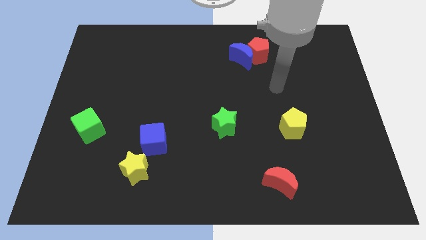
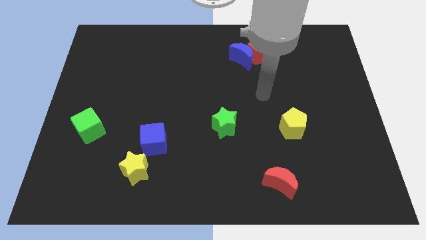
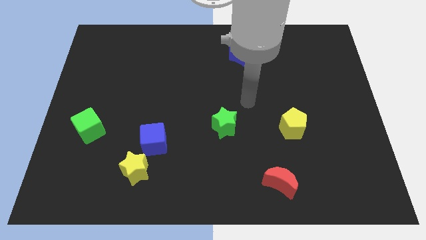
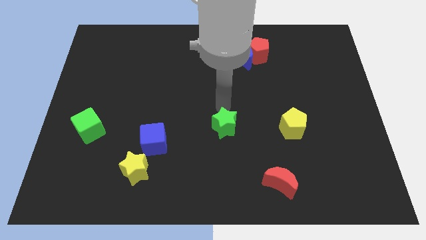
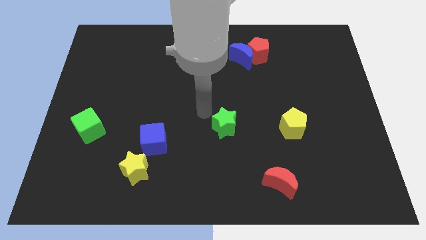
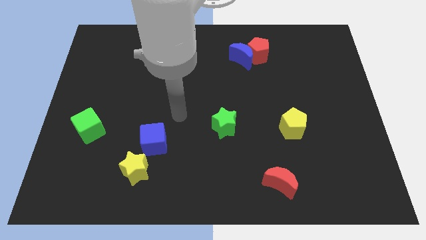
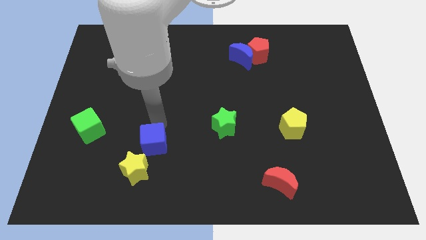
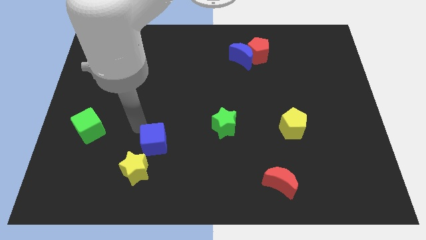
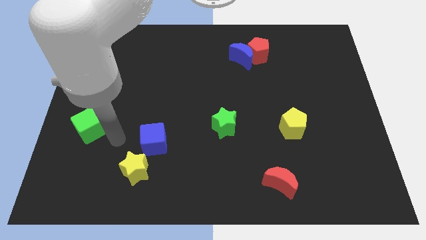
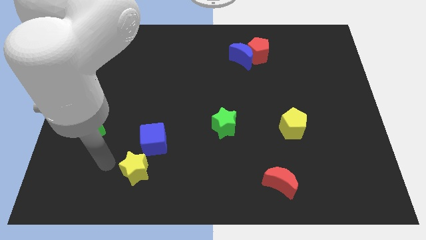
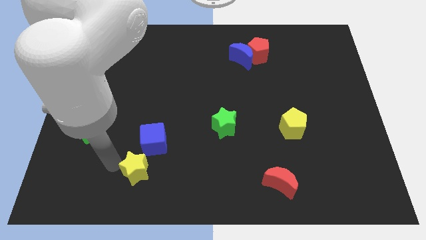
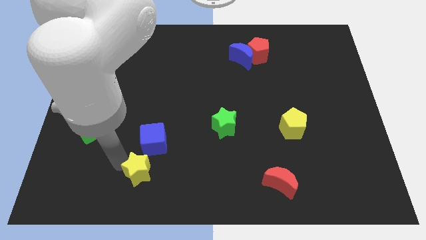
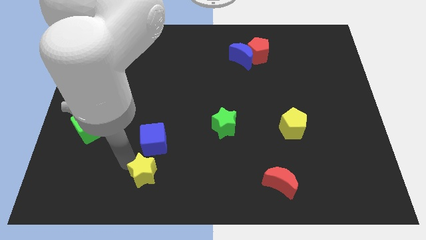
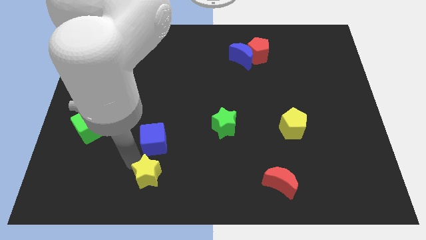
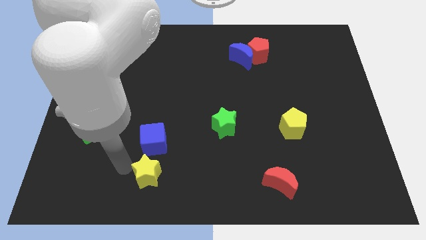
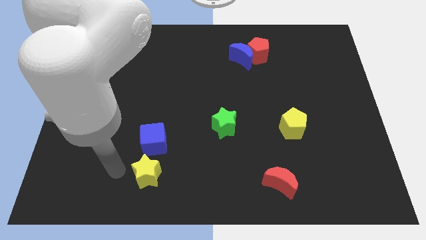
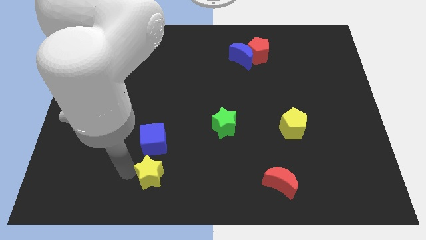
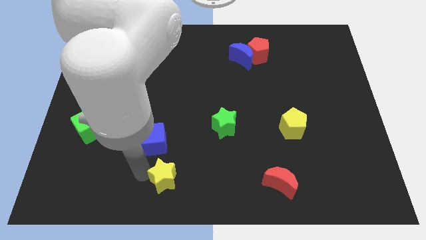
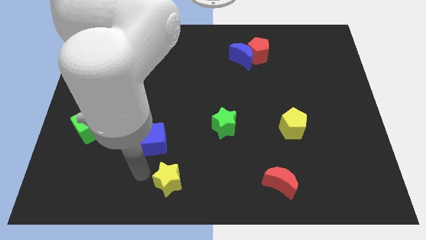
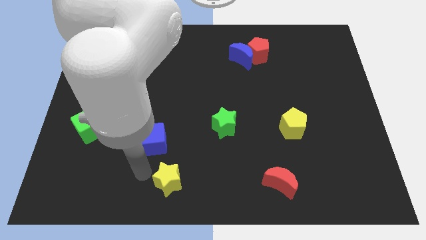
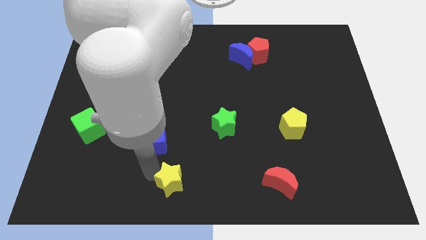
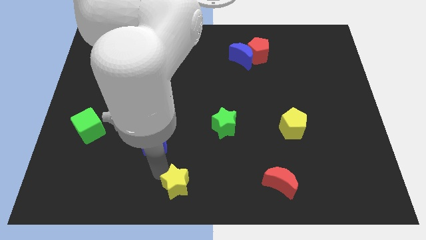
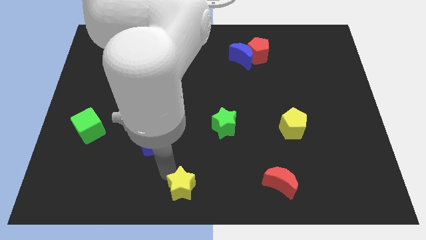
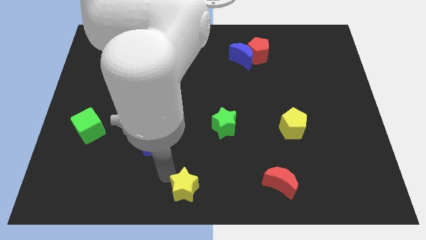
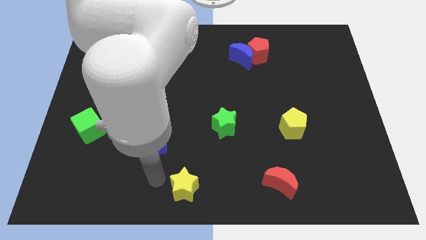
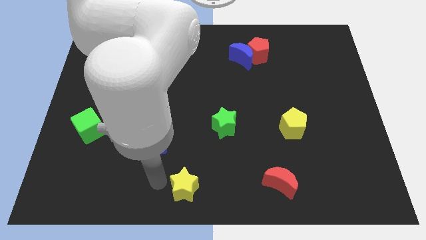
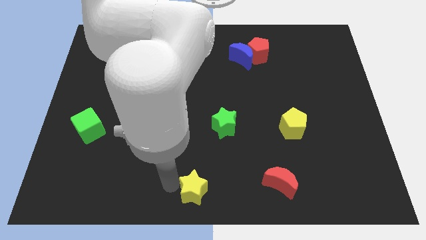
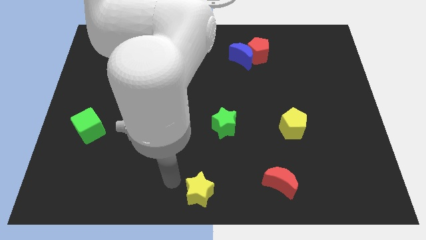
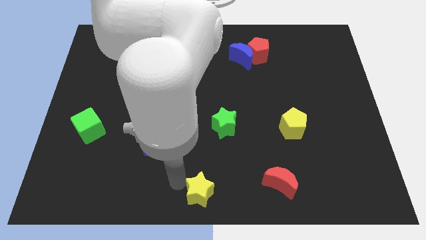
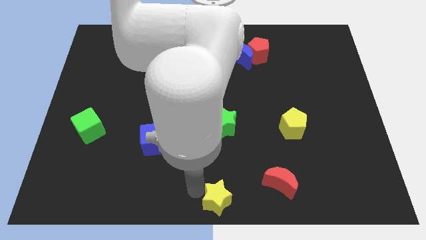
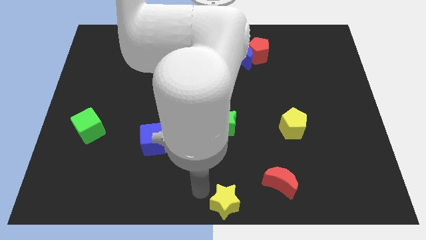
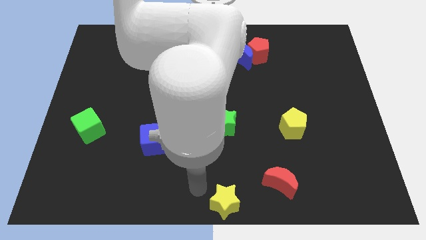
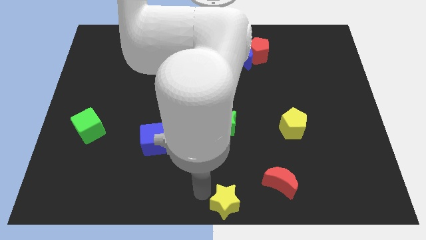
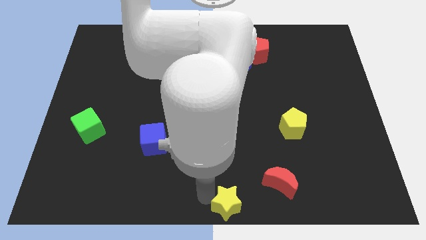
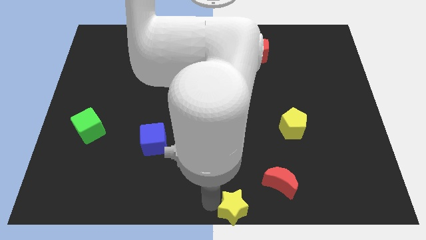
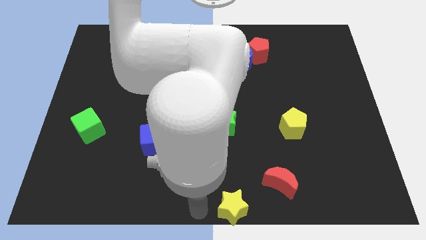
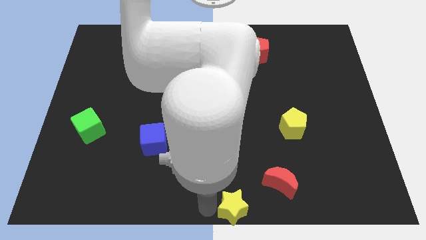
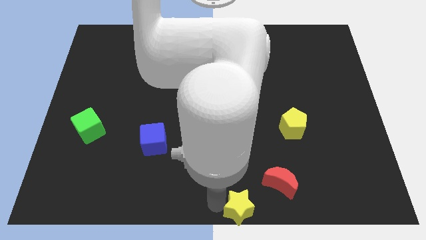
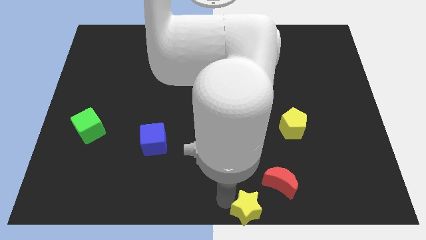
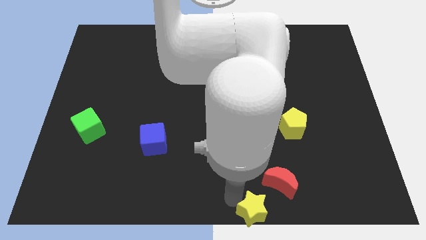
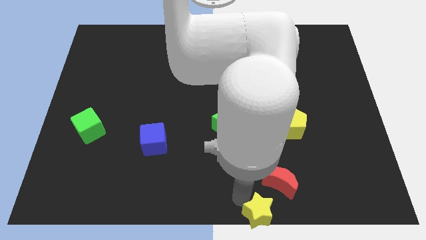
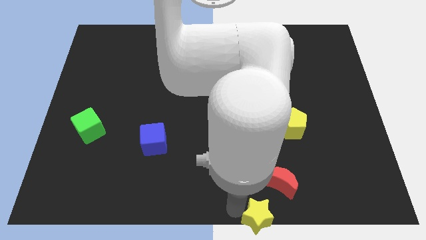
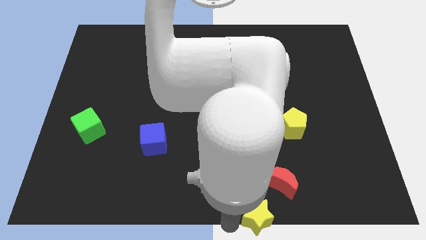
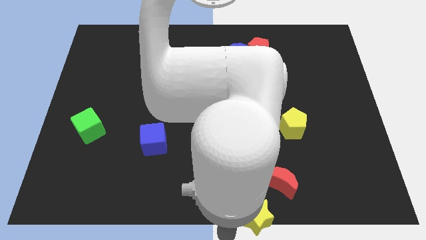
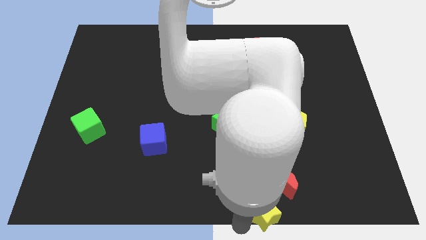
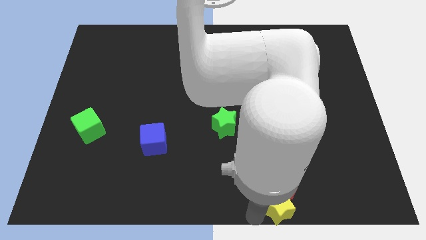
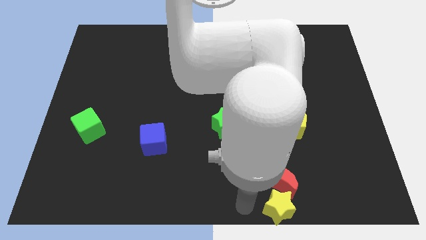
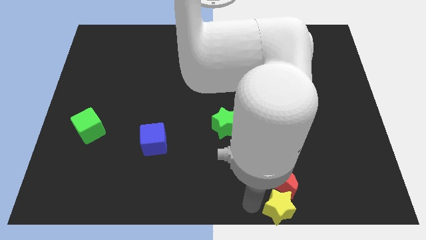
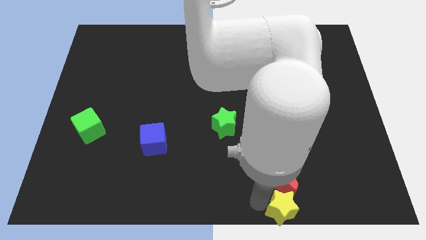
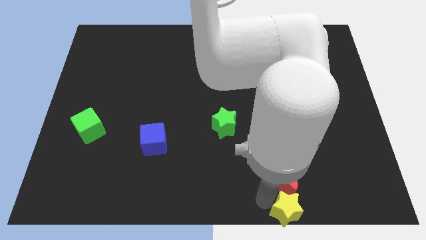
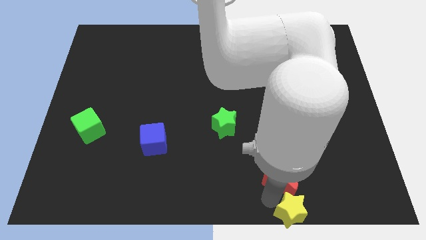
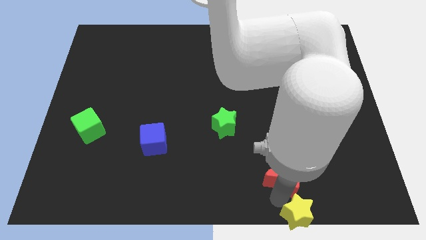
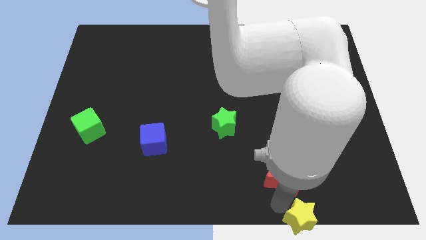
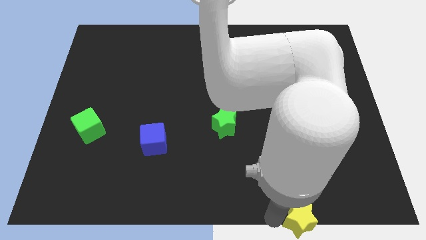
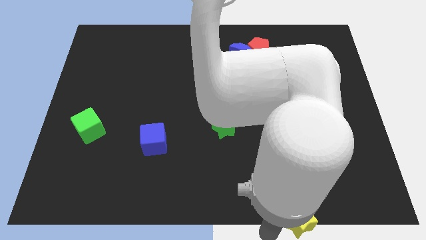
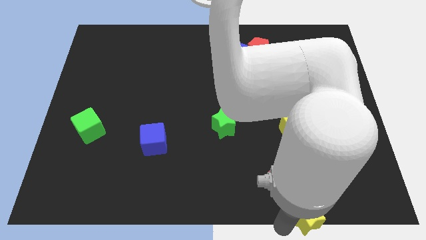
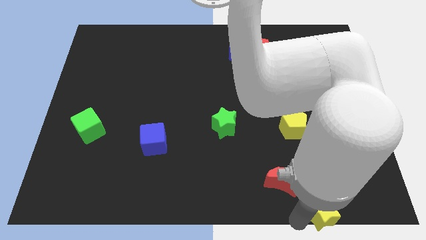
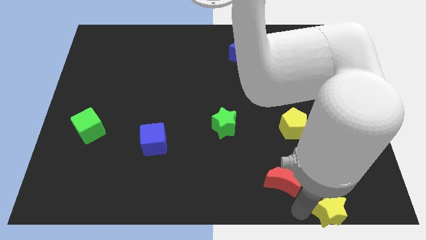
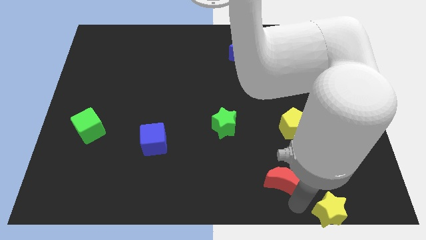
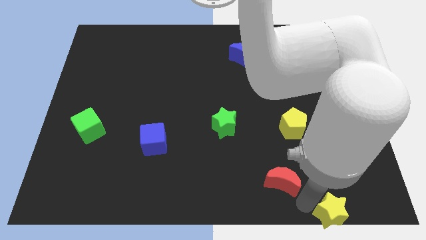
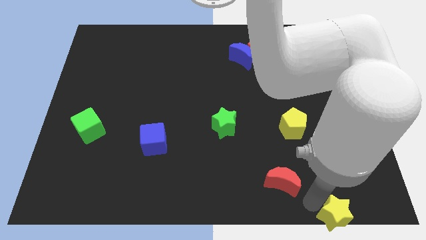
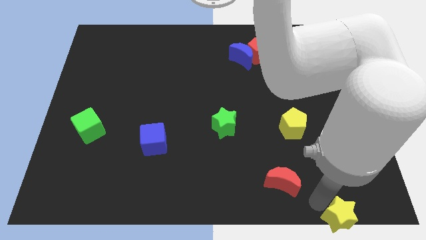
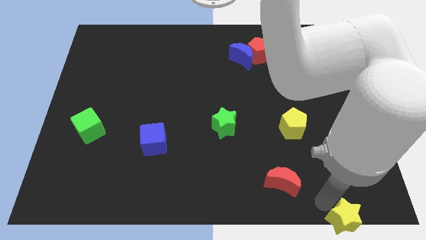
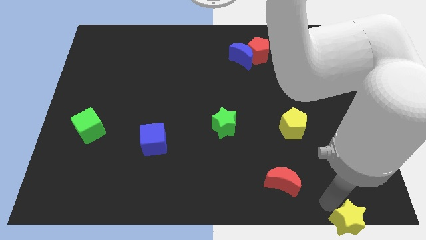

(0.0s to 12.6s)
move the yellow star to the bottom right

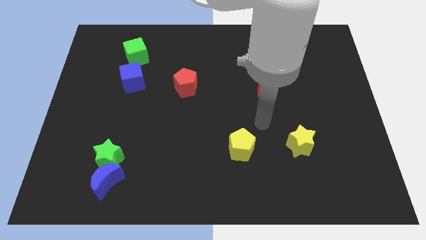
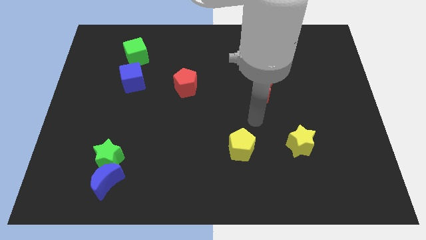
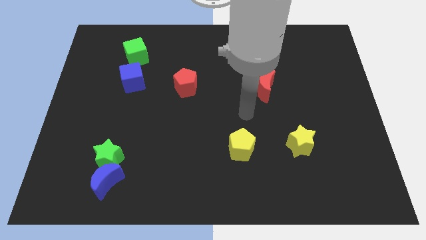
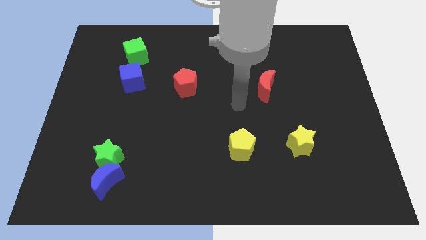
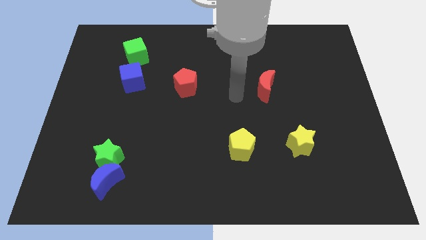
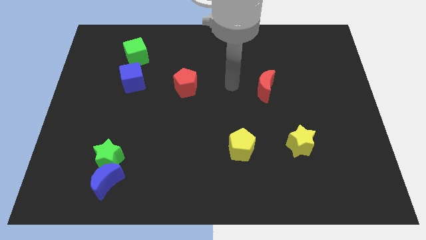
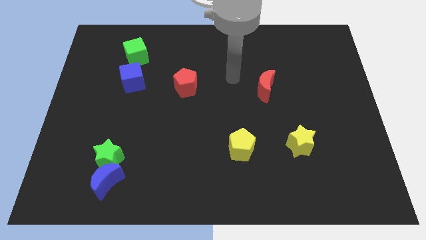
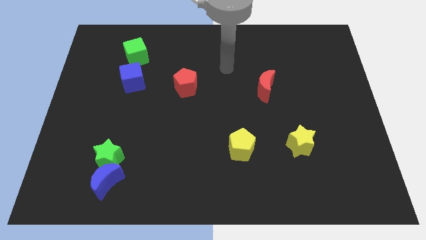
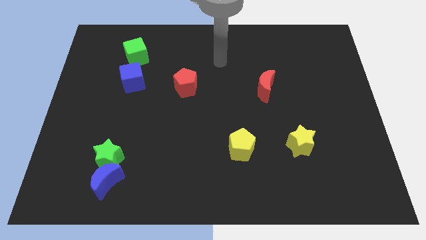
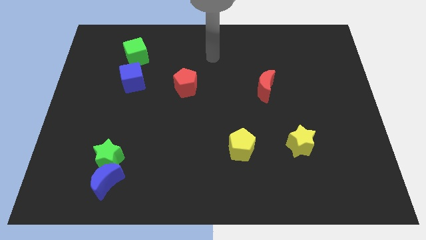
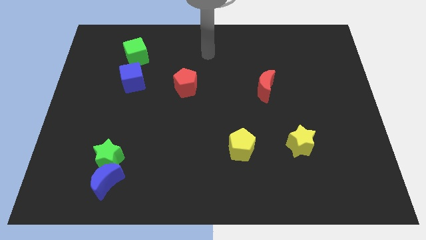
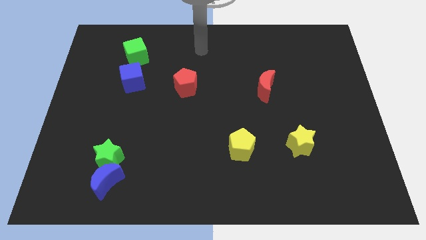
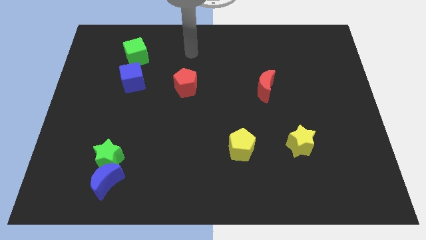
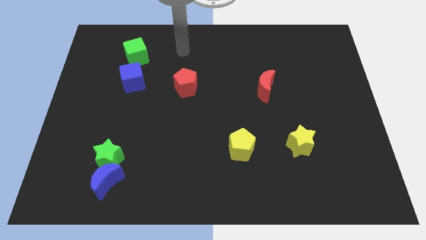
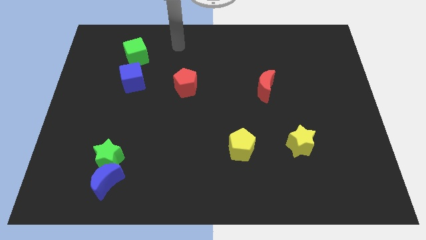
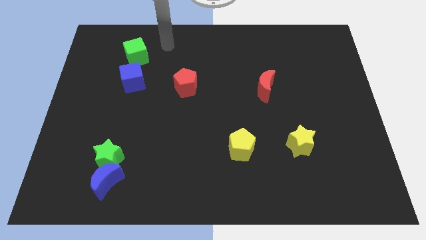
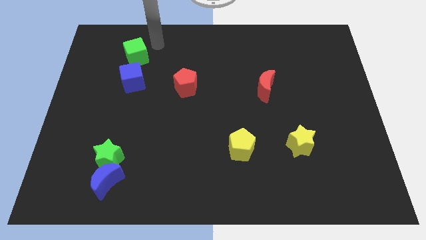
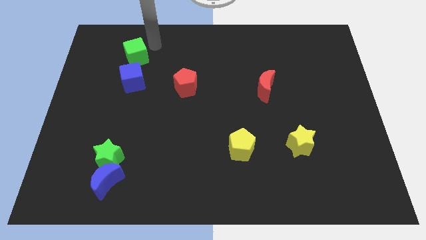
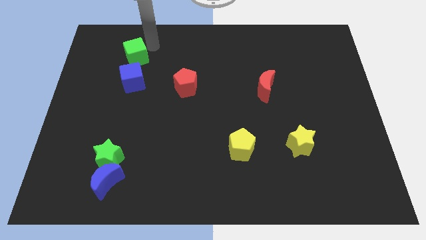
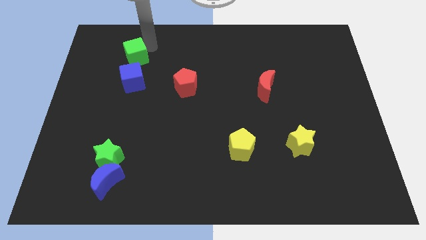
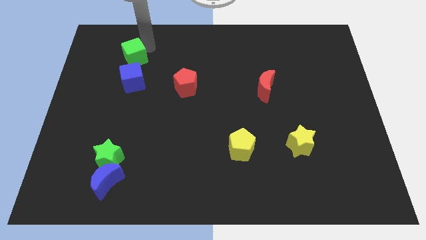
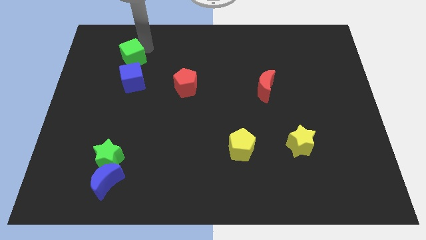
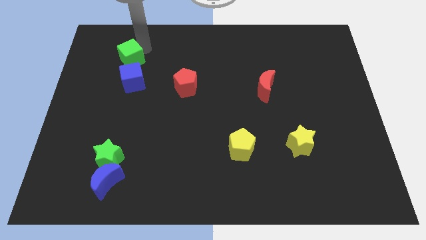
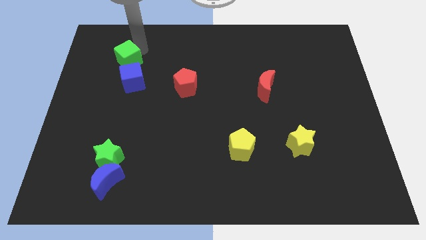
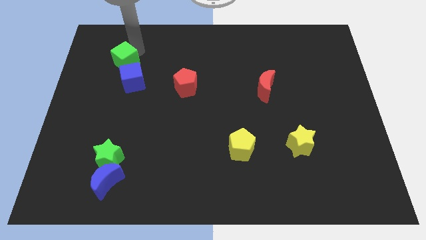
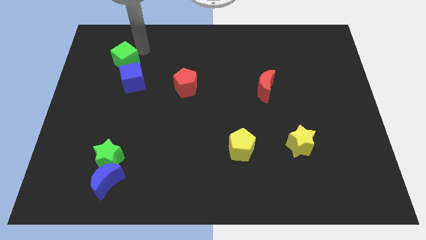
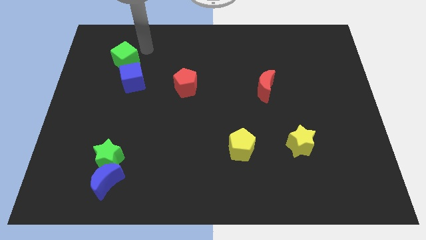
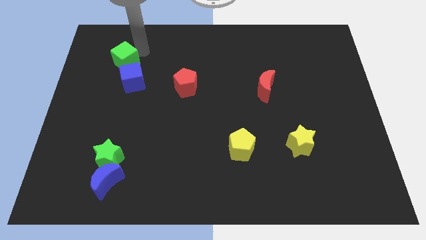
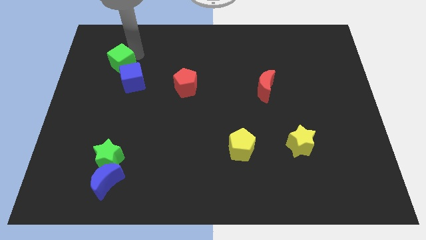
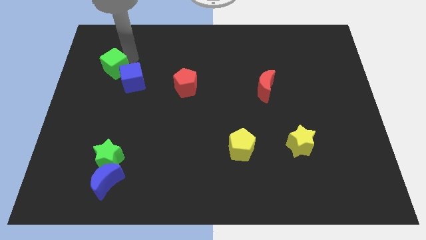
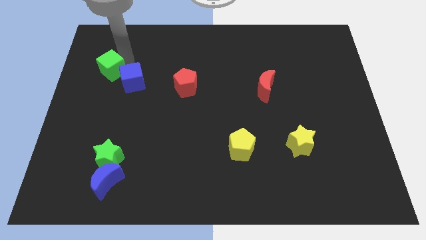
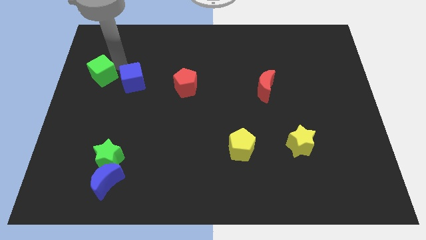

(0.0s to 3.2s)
put the green cube to the left side
